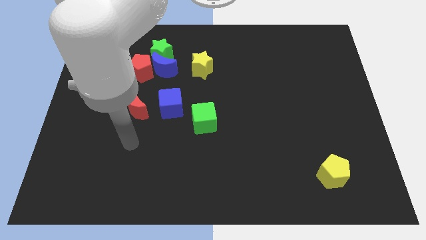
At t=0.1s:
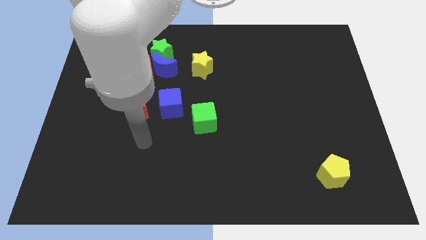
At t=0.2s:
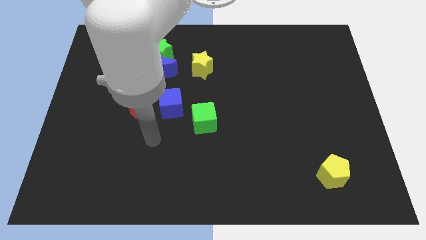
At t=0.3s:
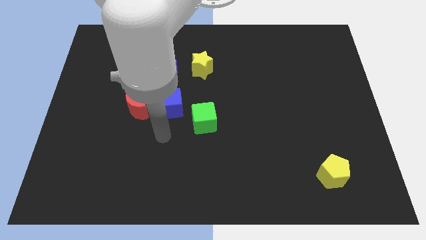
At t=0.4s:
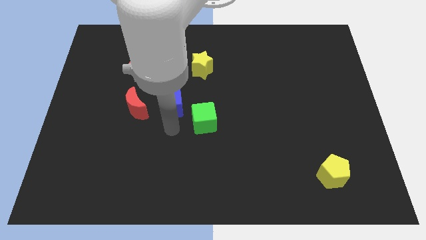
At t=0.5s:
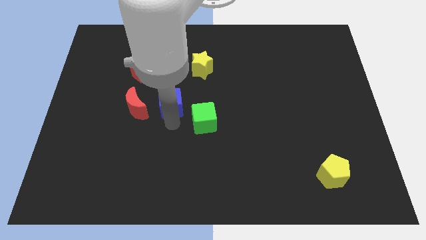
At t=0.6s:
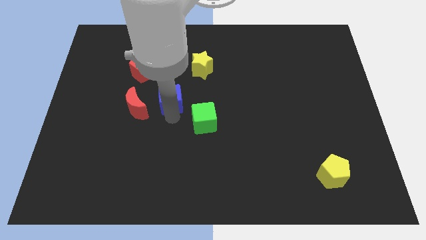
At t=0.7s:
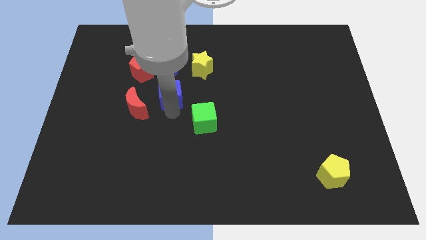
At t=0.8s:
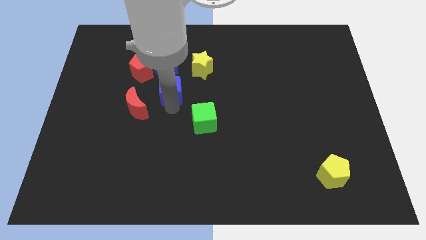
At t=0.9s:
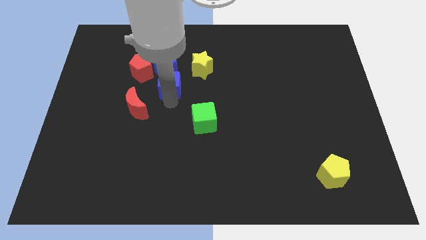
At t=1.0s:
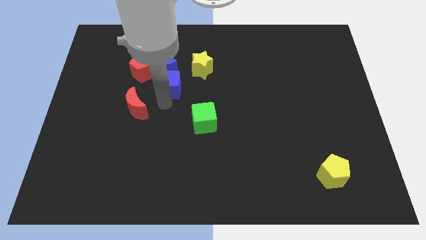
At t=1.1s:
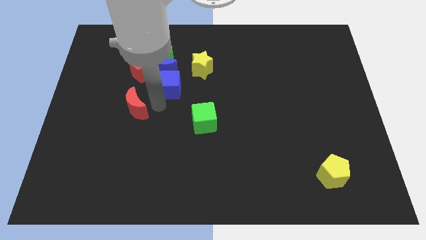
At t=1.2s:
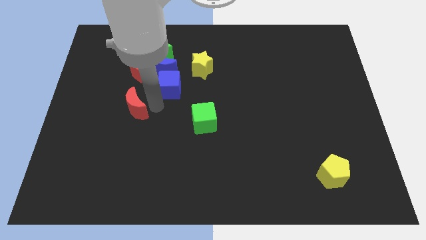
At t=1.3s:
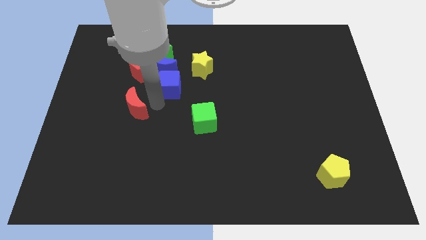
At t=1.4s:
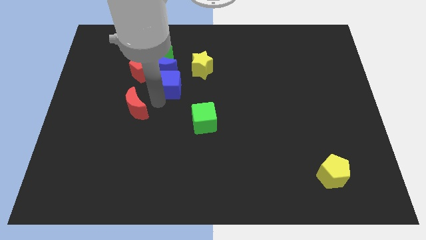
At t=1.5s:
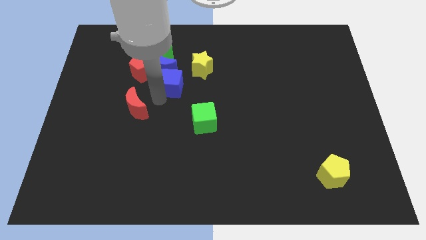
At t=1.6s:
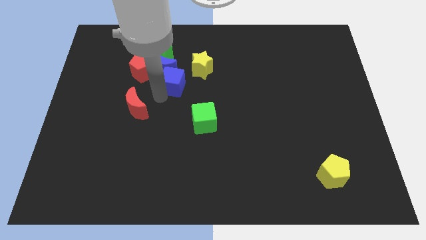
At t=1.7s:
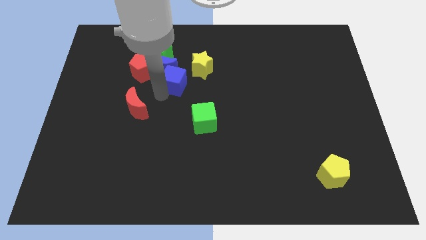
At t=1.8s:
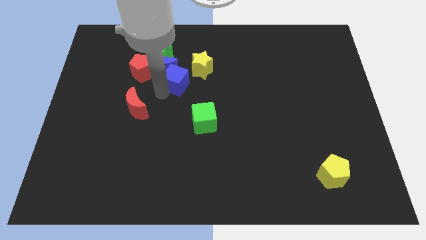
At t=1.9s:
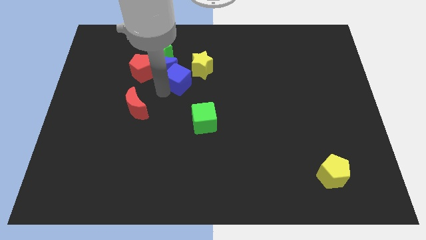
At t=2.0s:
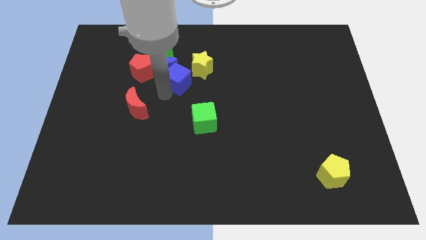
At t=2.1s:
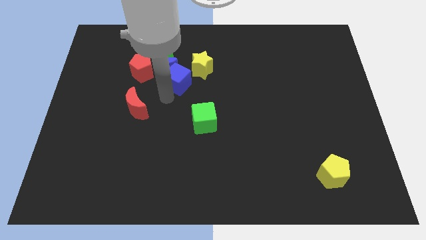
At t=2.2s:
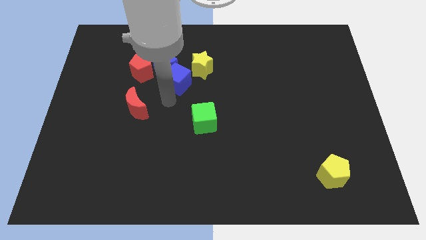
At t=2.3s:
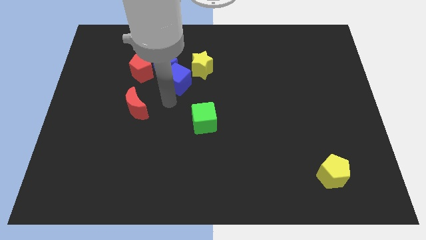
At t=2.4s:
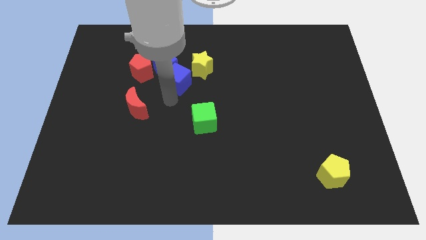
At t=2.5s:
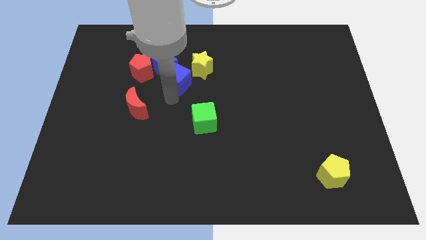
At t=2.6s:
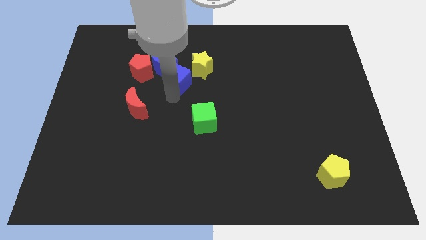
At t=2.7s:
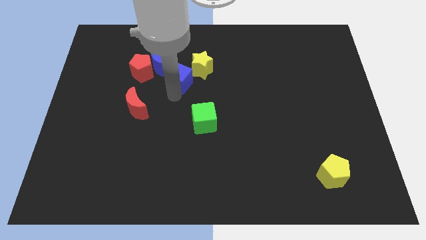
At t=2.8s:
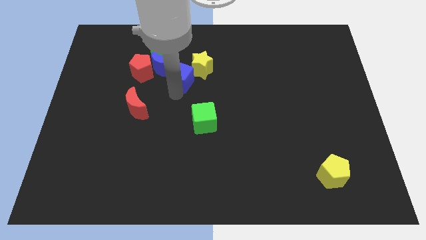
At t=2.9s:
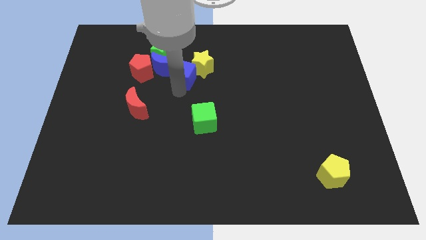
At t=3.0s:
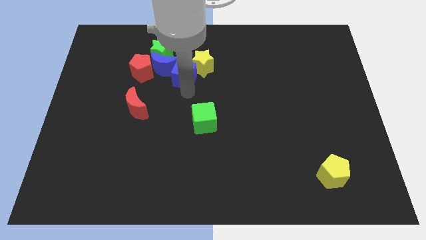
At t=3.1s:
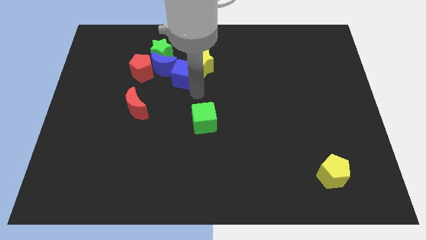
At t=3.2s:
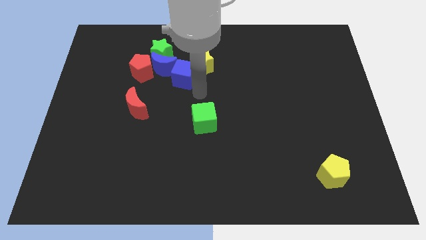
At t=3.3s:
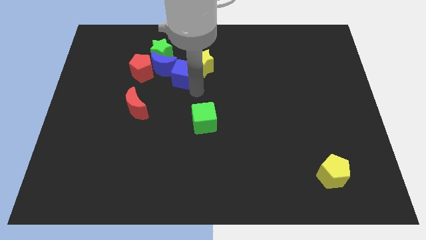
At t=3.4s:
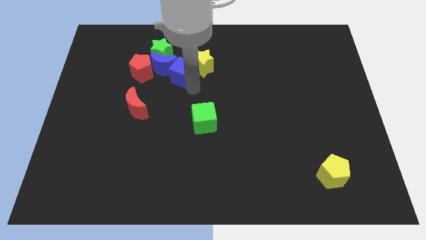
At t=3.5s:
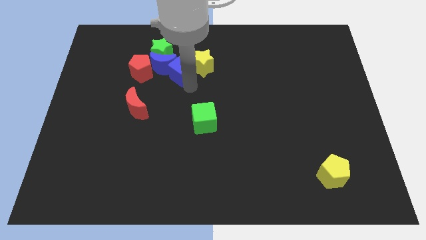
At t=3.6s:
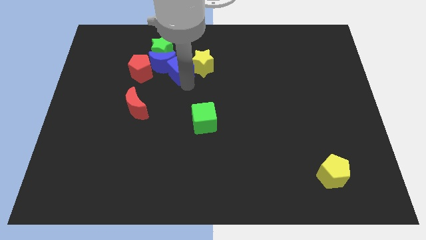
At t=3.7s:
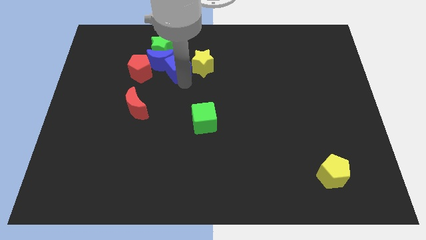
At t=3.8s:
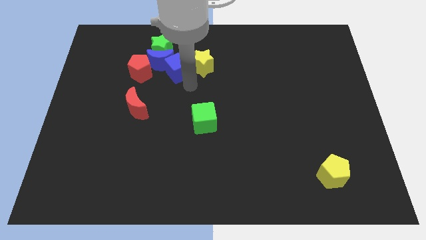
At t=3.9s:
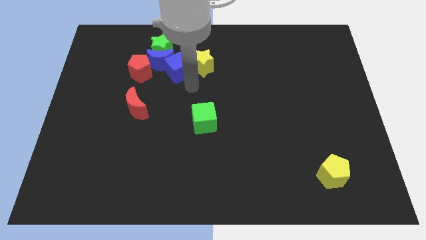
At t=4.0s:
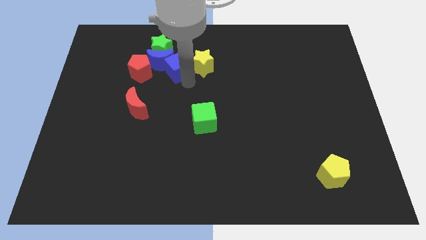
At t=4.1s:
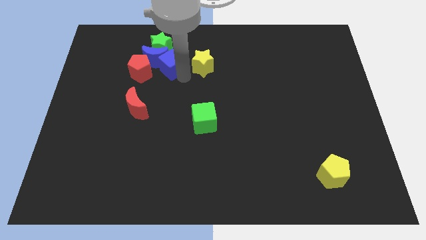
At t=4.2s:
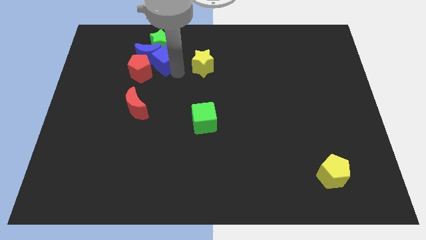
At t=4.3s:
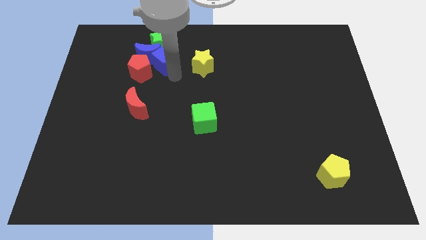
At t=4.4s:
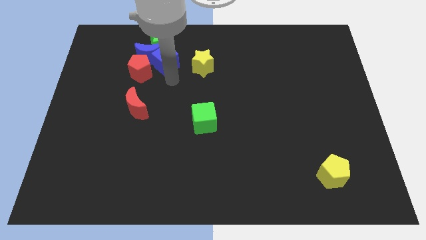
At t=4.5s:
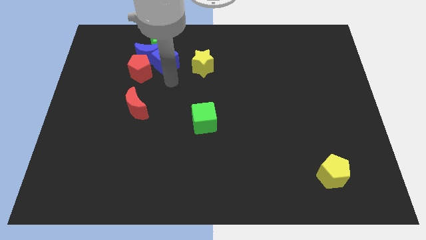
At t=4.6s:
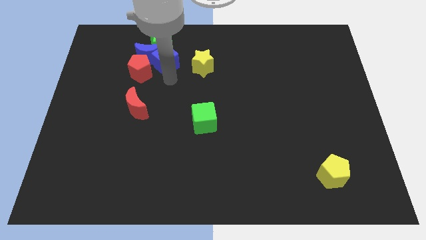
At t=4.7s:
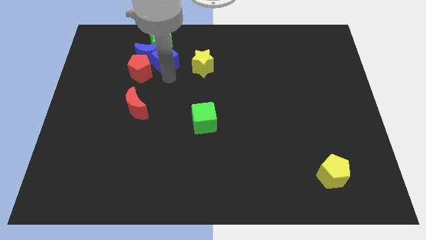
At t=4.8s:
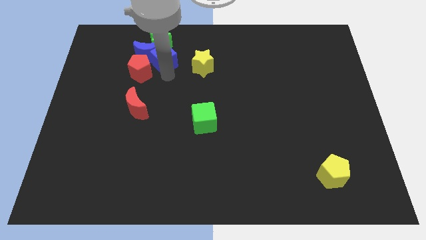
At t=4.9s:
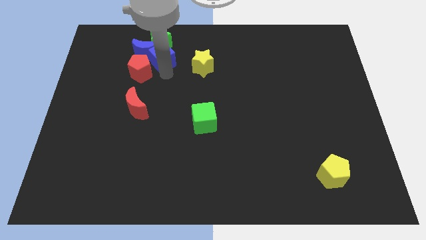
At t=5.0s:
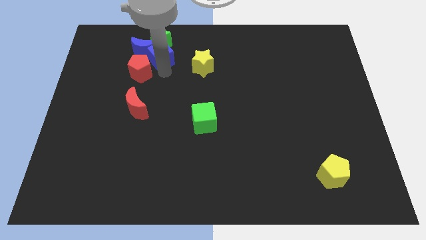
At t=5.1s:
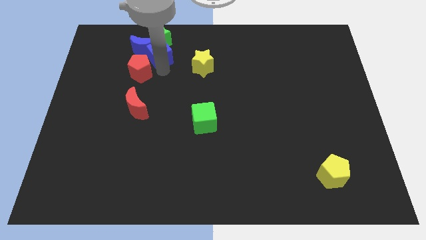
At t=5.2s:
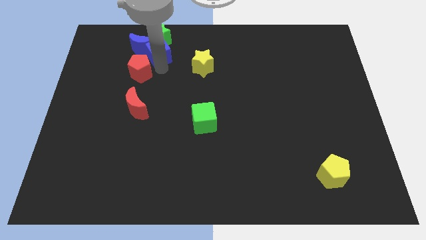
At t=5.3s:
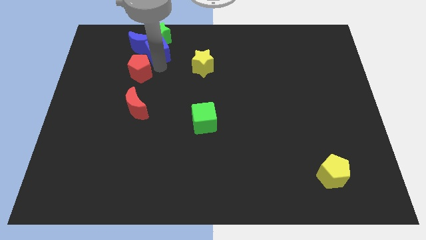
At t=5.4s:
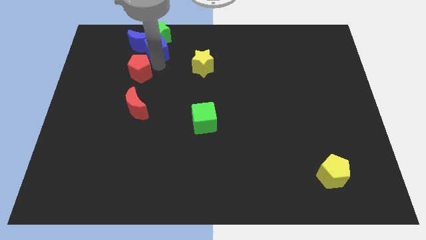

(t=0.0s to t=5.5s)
slide the blue cube close to the green star

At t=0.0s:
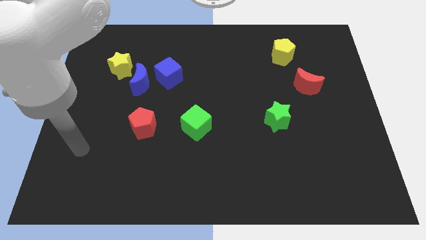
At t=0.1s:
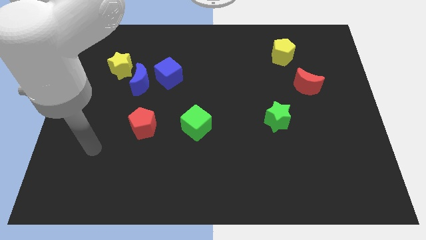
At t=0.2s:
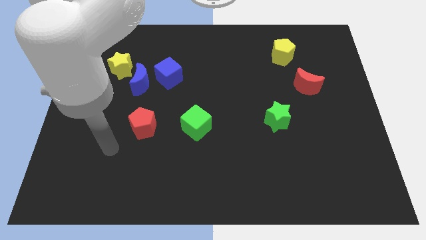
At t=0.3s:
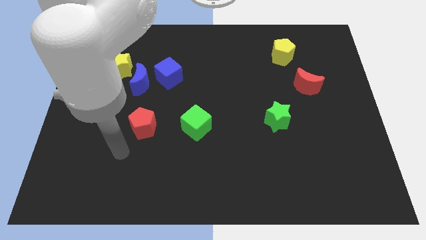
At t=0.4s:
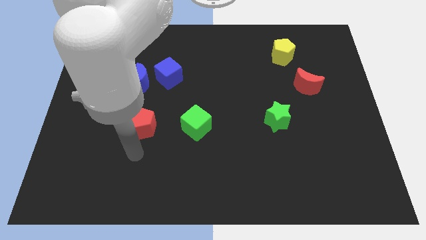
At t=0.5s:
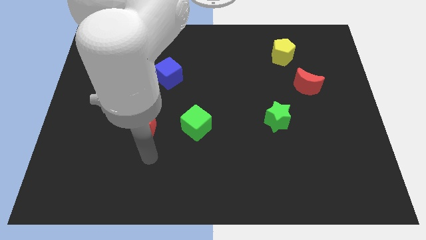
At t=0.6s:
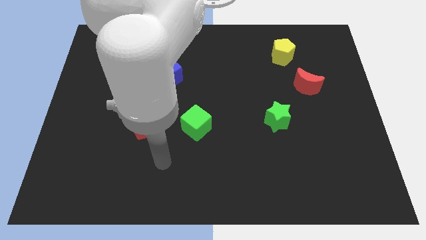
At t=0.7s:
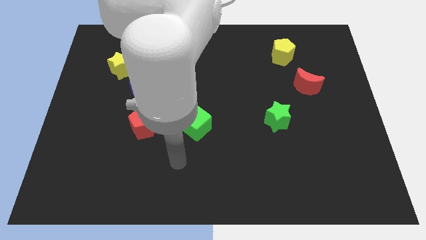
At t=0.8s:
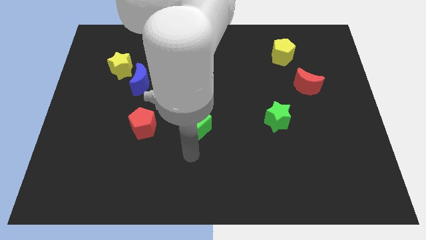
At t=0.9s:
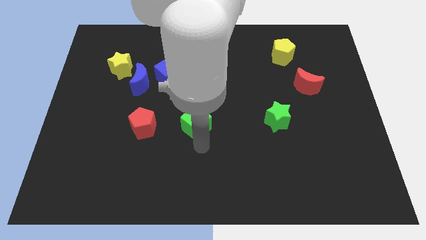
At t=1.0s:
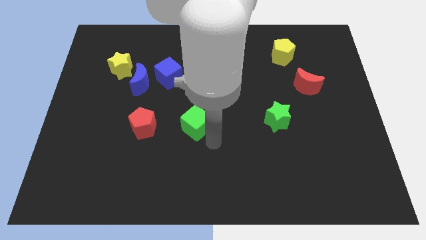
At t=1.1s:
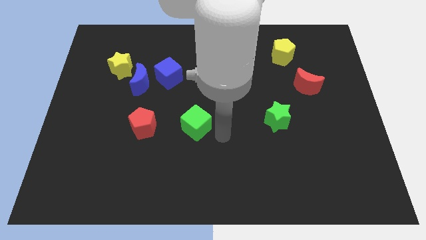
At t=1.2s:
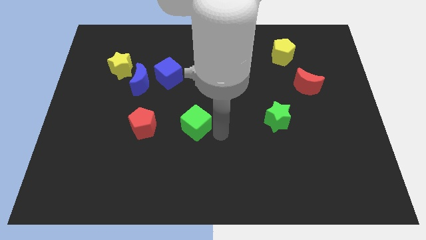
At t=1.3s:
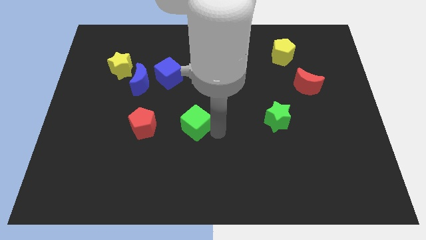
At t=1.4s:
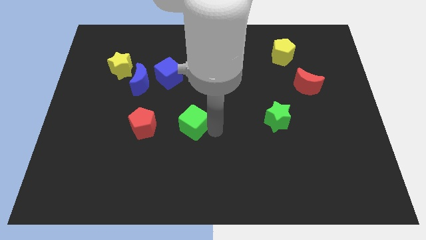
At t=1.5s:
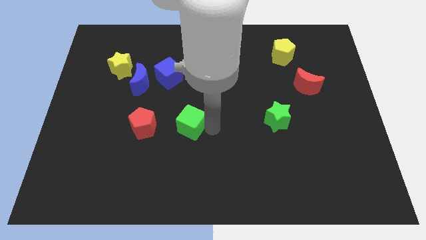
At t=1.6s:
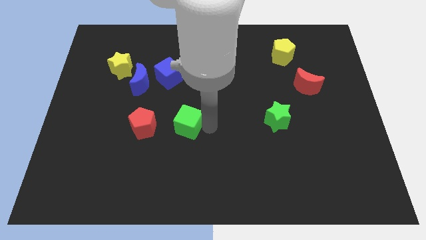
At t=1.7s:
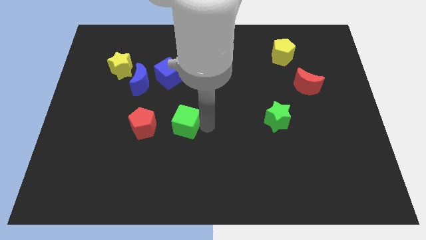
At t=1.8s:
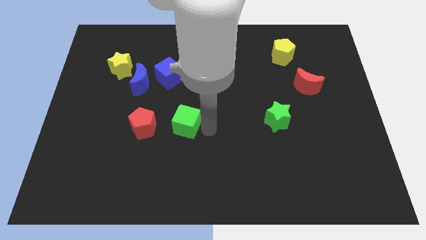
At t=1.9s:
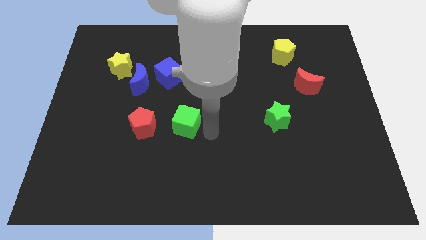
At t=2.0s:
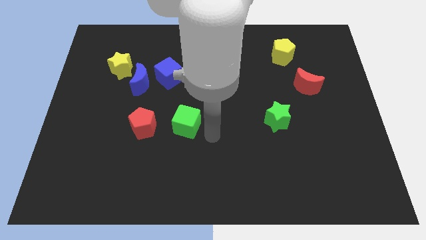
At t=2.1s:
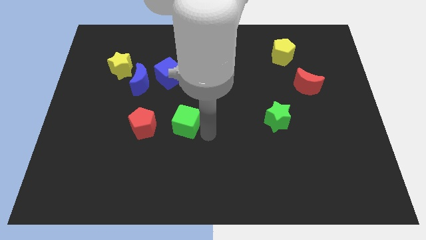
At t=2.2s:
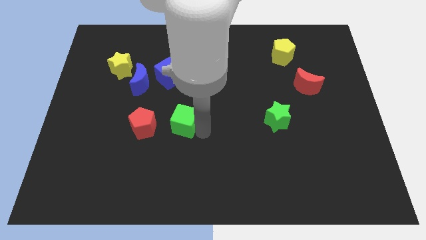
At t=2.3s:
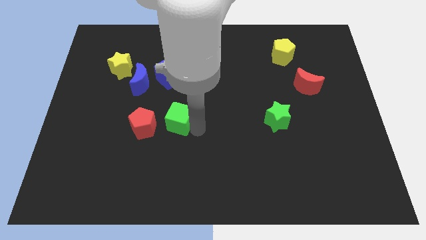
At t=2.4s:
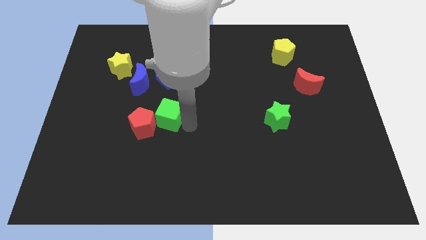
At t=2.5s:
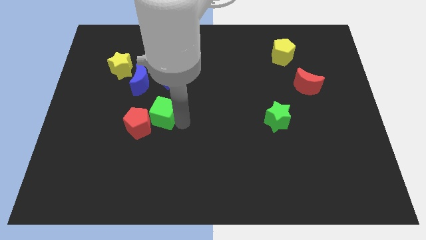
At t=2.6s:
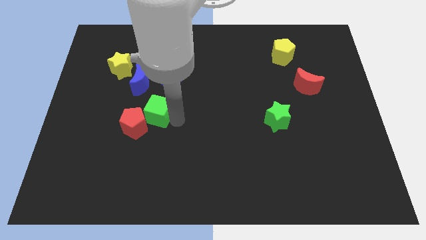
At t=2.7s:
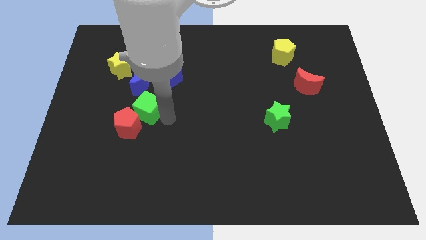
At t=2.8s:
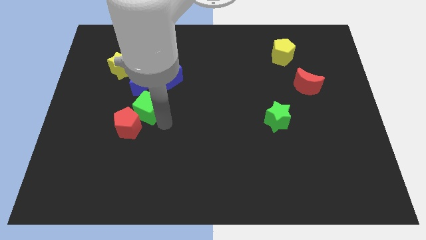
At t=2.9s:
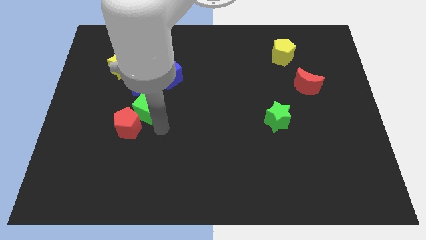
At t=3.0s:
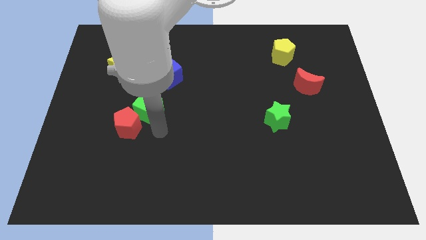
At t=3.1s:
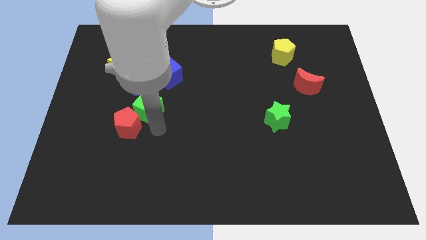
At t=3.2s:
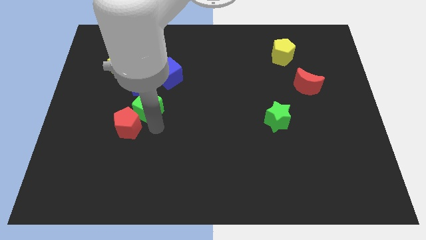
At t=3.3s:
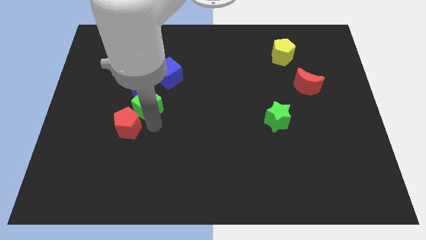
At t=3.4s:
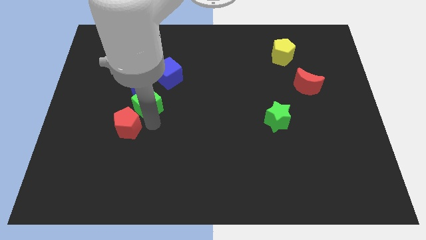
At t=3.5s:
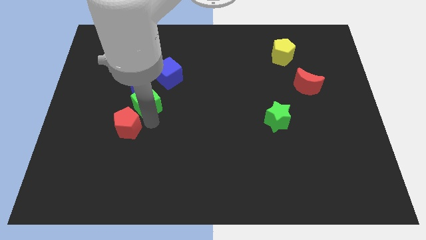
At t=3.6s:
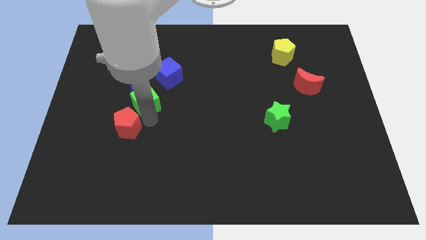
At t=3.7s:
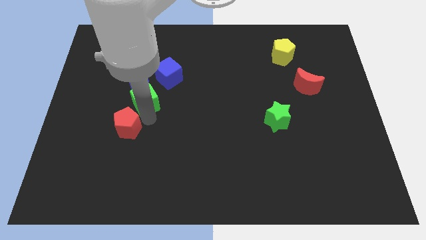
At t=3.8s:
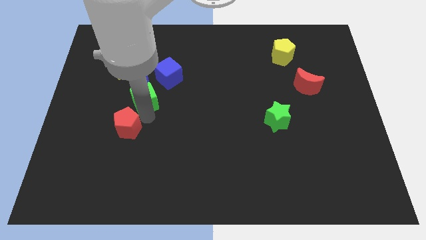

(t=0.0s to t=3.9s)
move the green cube next to the blue moon
